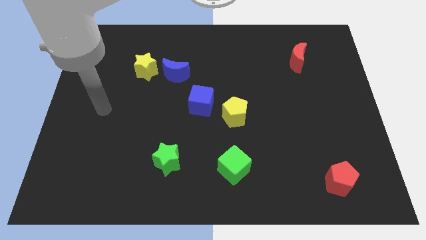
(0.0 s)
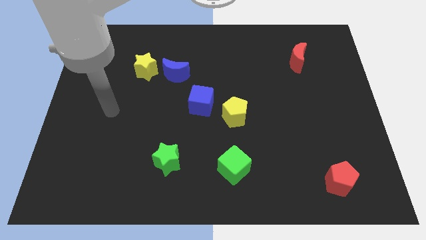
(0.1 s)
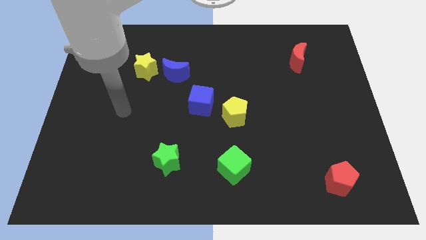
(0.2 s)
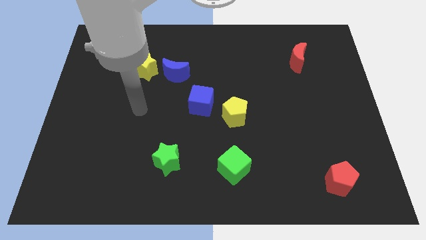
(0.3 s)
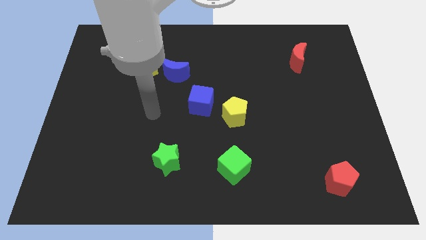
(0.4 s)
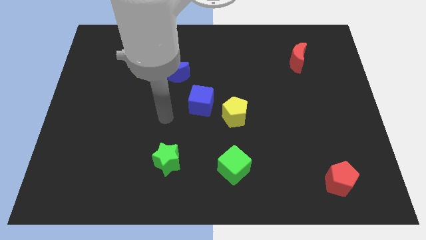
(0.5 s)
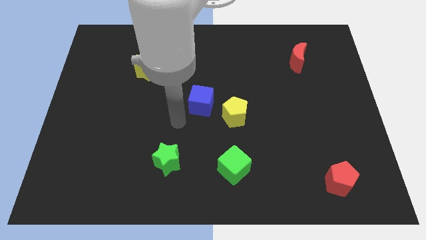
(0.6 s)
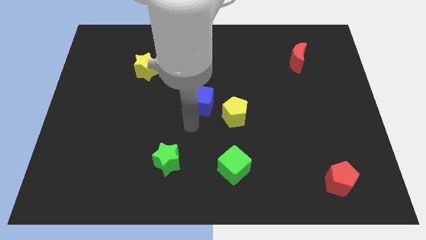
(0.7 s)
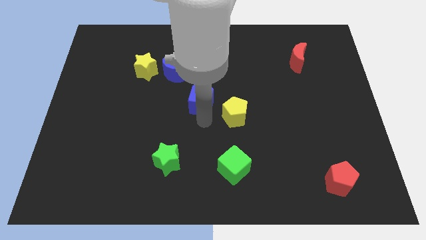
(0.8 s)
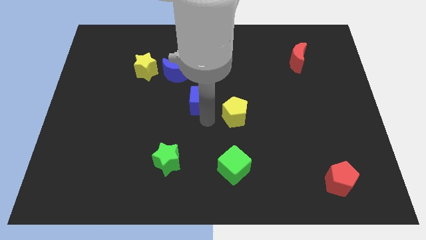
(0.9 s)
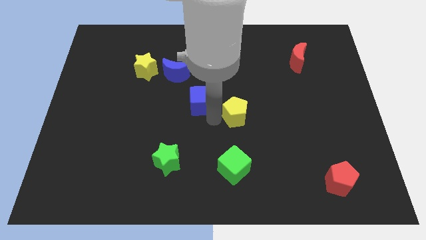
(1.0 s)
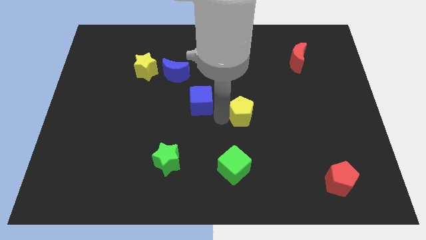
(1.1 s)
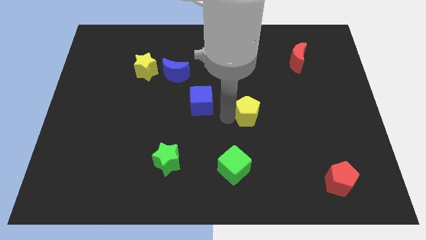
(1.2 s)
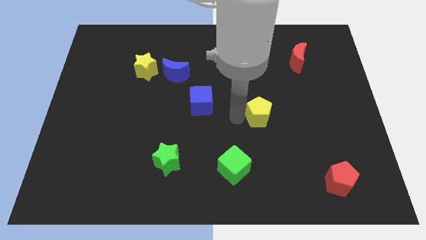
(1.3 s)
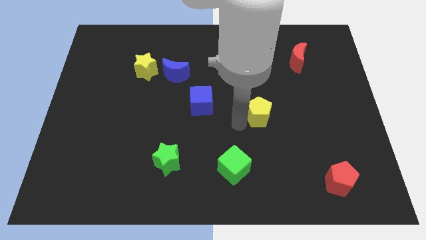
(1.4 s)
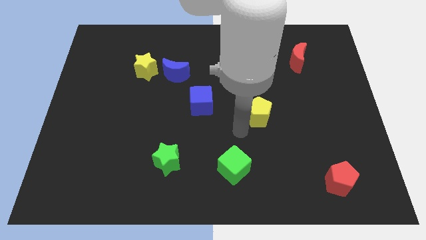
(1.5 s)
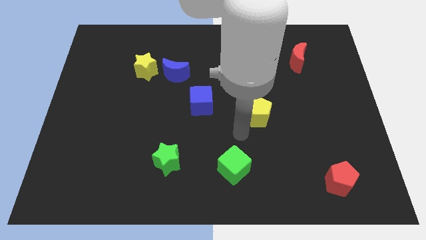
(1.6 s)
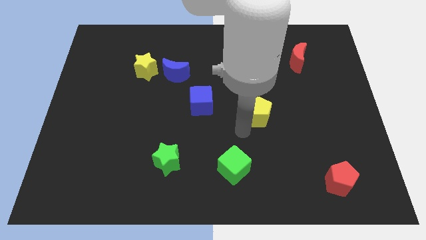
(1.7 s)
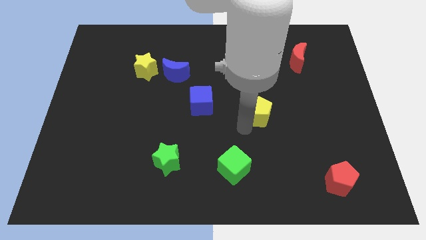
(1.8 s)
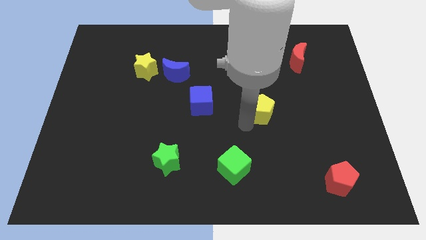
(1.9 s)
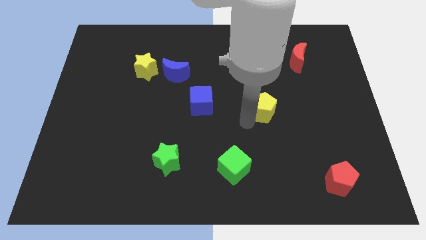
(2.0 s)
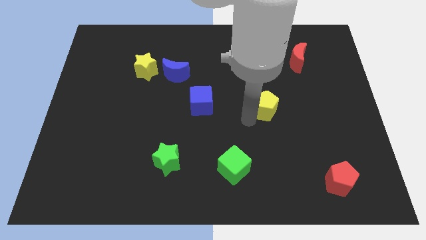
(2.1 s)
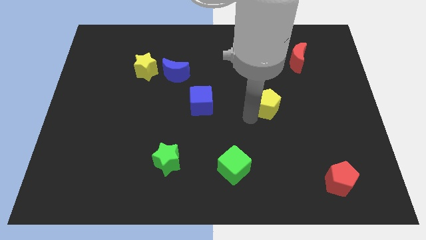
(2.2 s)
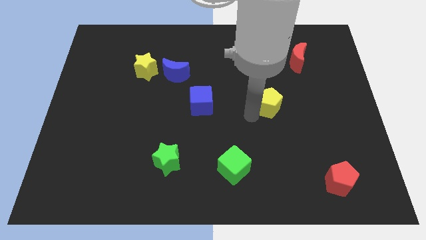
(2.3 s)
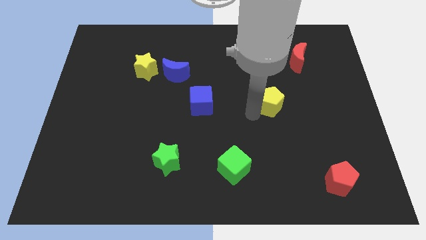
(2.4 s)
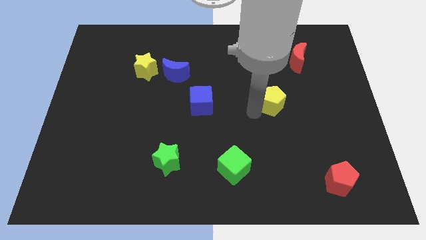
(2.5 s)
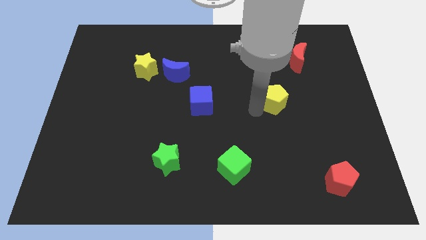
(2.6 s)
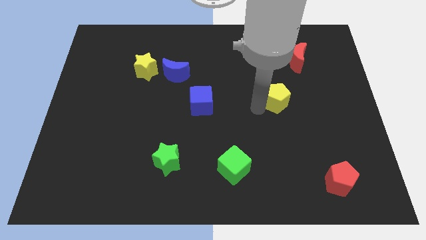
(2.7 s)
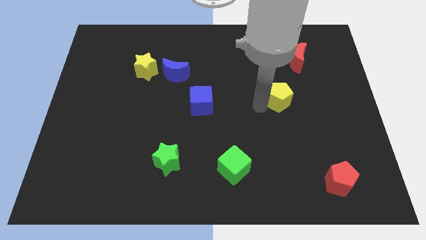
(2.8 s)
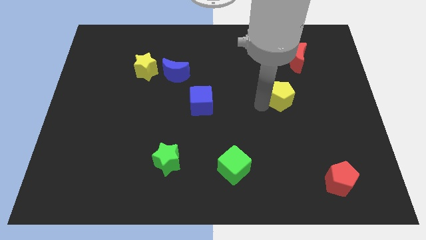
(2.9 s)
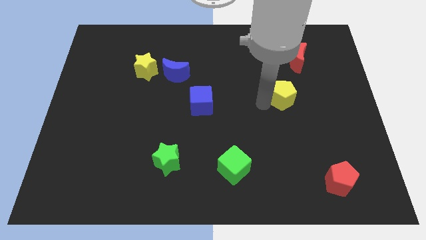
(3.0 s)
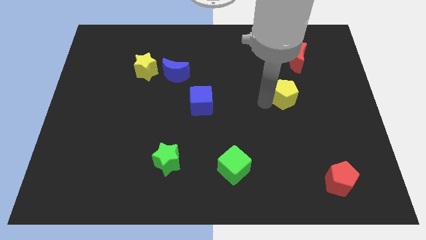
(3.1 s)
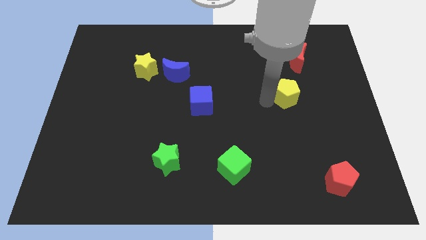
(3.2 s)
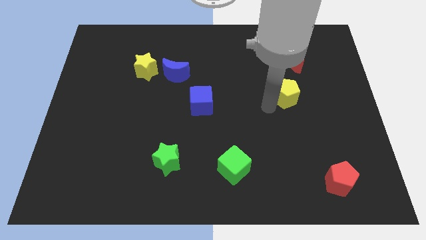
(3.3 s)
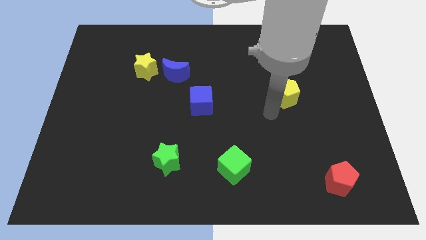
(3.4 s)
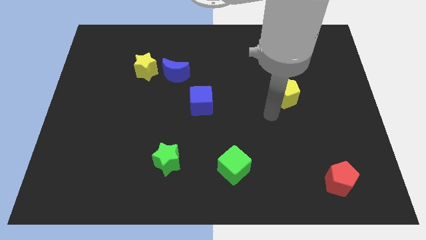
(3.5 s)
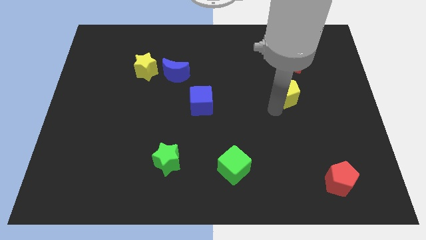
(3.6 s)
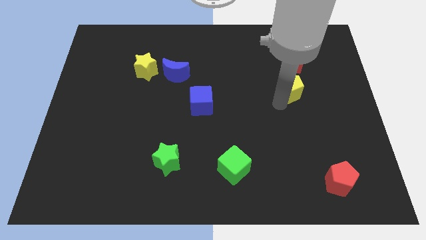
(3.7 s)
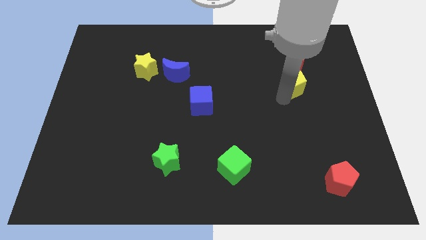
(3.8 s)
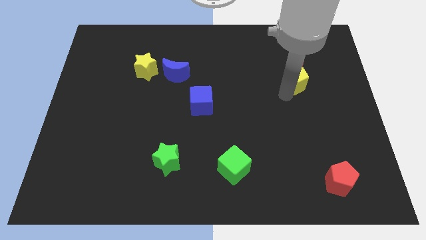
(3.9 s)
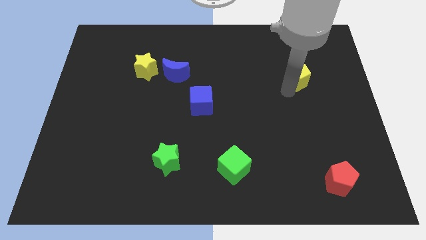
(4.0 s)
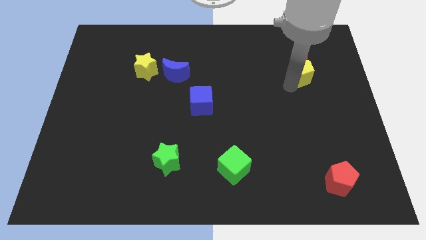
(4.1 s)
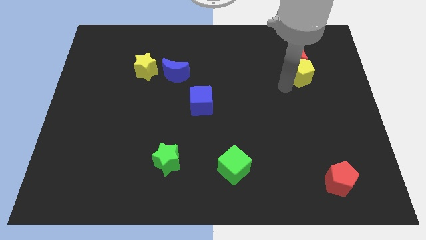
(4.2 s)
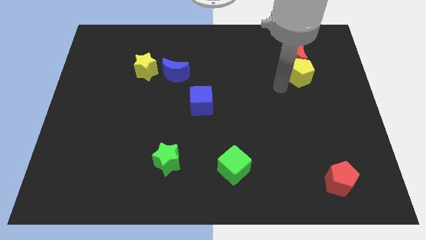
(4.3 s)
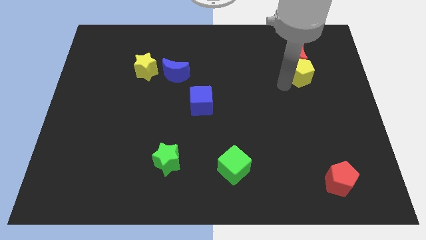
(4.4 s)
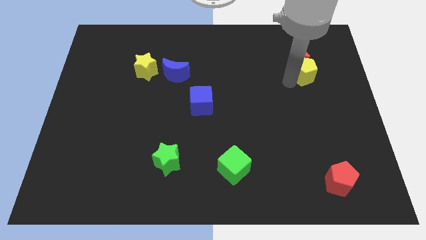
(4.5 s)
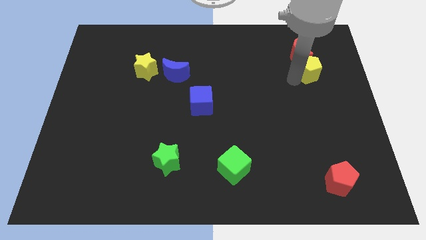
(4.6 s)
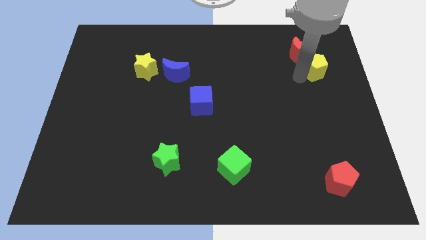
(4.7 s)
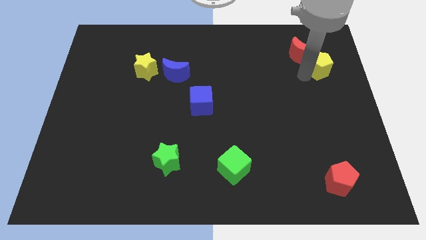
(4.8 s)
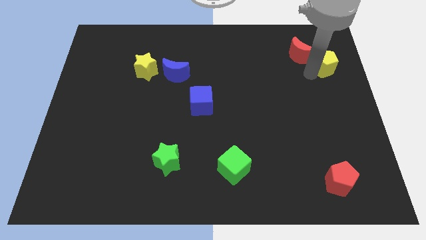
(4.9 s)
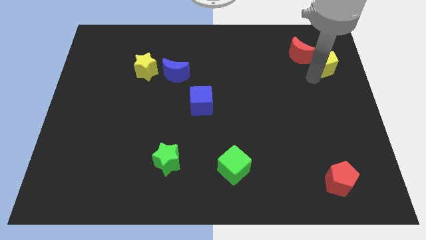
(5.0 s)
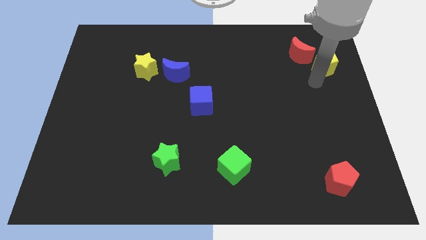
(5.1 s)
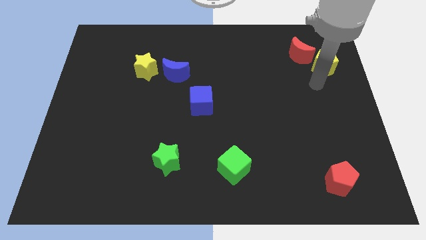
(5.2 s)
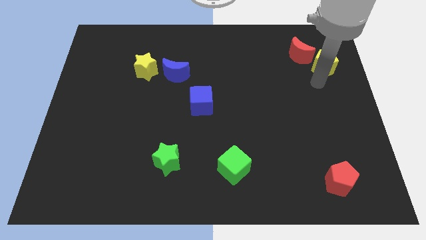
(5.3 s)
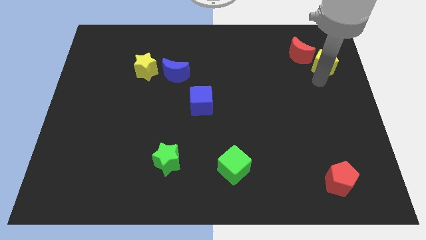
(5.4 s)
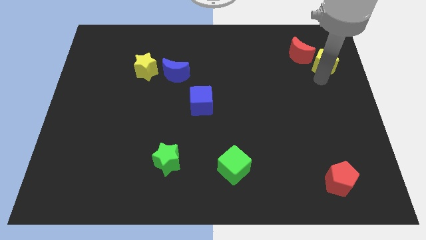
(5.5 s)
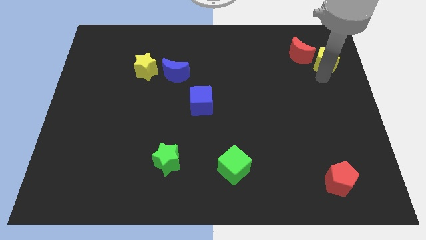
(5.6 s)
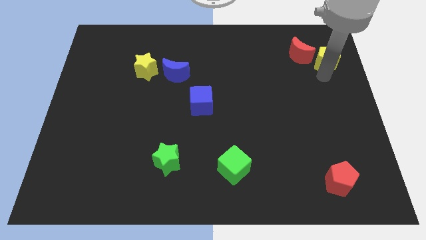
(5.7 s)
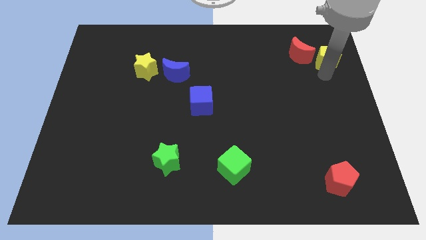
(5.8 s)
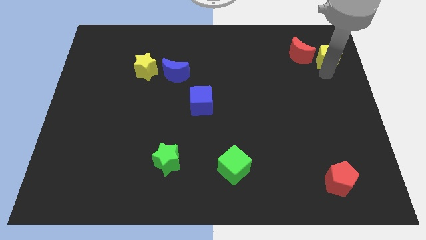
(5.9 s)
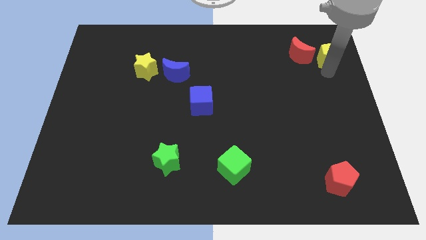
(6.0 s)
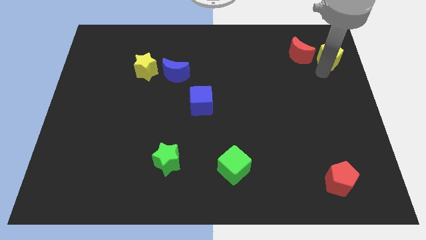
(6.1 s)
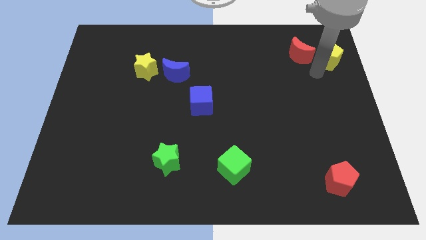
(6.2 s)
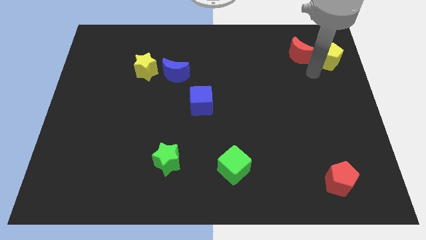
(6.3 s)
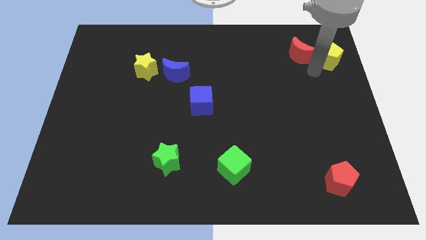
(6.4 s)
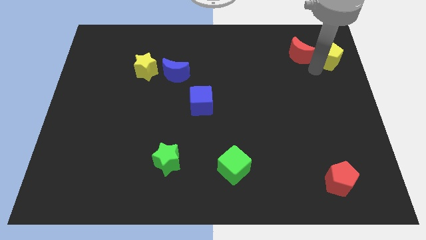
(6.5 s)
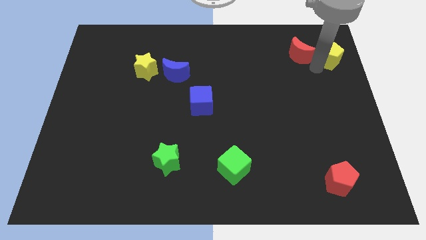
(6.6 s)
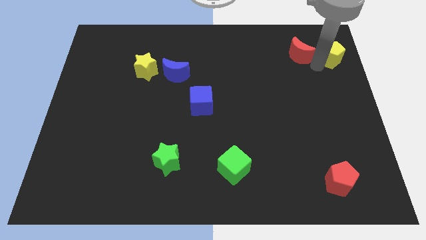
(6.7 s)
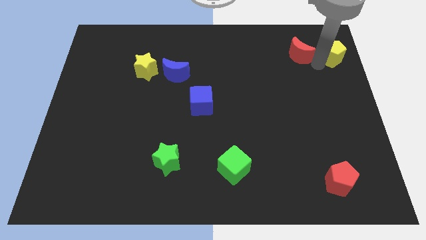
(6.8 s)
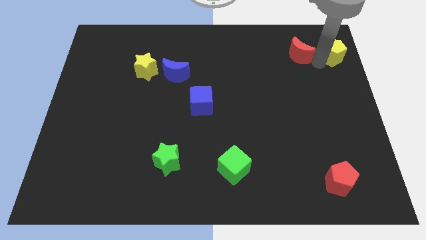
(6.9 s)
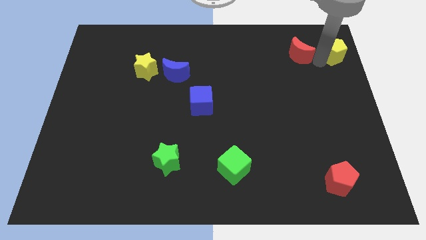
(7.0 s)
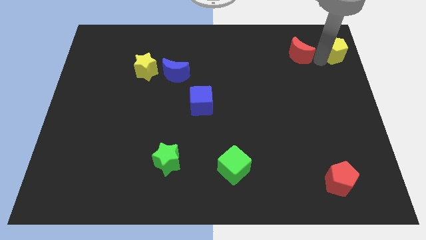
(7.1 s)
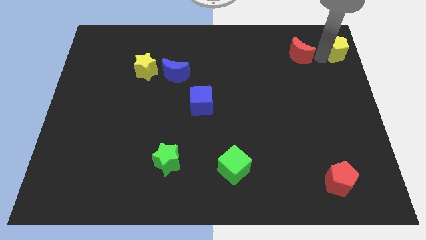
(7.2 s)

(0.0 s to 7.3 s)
slide the yellow pentagon to the top right corner
